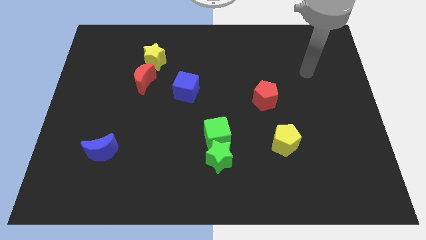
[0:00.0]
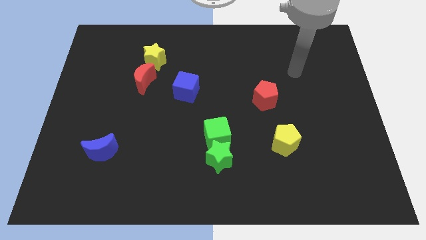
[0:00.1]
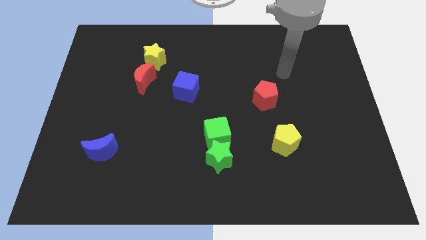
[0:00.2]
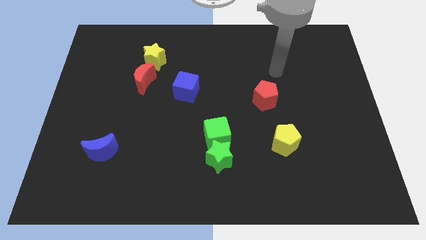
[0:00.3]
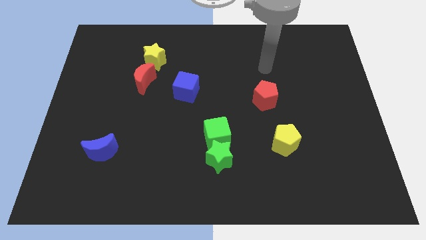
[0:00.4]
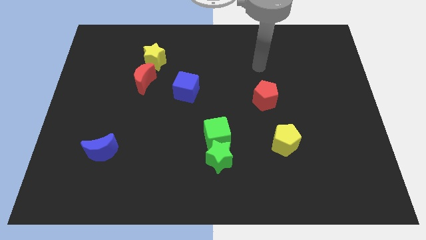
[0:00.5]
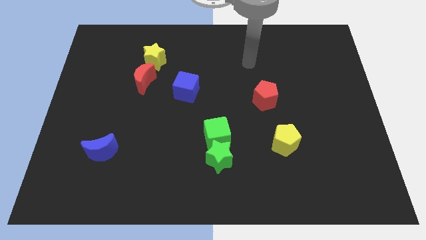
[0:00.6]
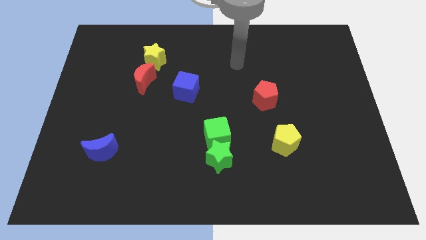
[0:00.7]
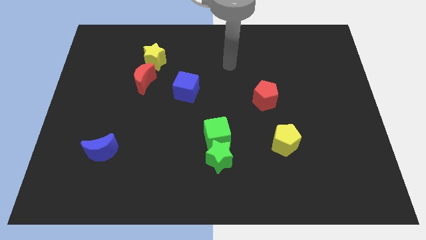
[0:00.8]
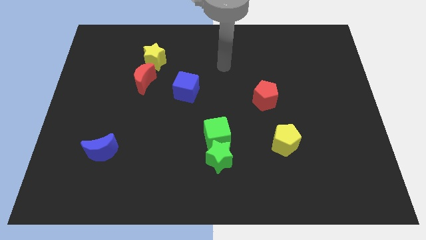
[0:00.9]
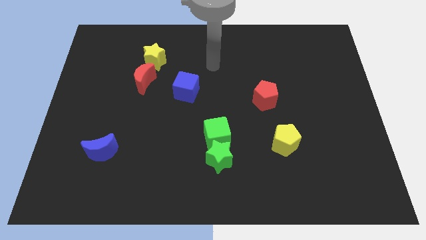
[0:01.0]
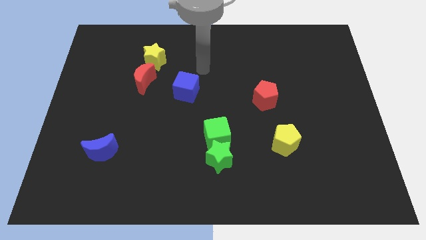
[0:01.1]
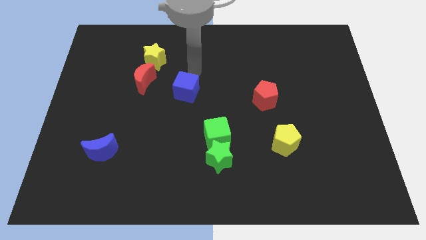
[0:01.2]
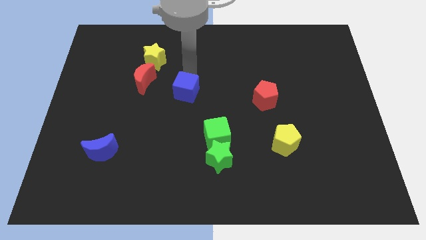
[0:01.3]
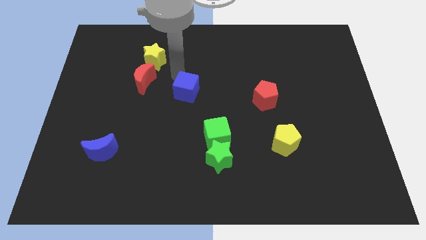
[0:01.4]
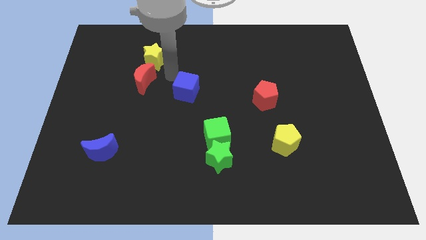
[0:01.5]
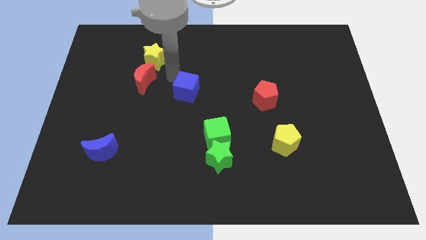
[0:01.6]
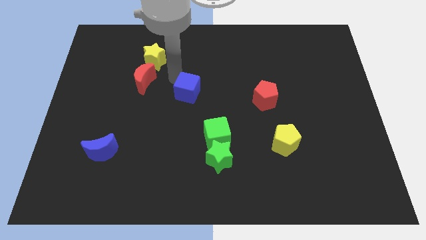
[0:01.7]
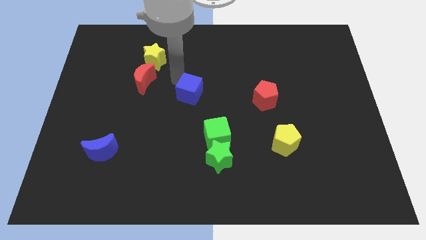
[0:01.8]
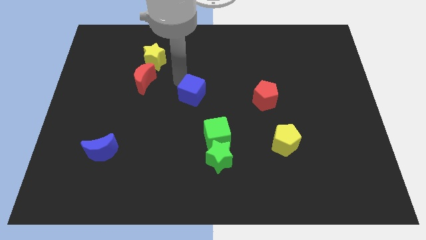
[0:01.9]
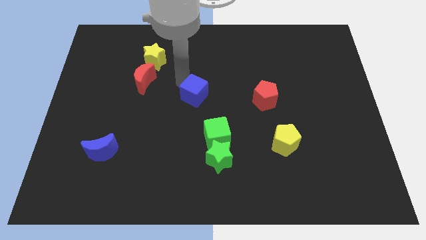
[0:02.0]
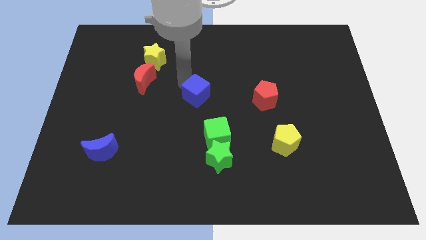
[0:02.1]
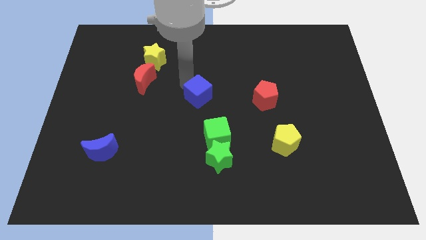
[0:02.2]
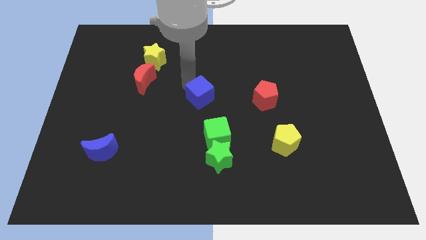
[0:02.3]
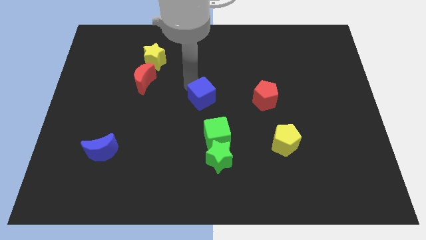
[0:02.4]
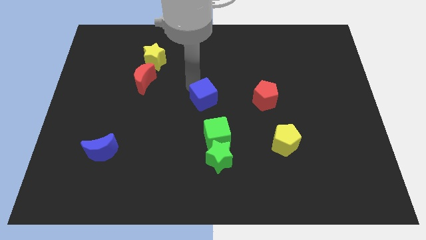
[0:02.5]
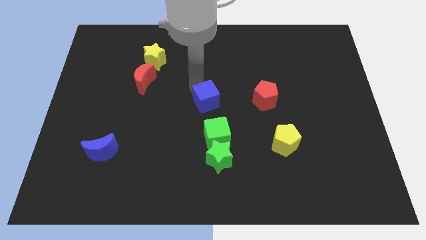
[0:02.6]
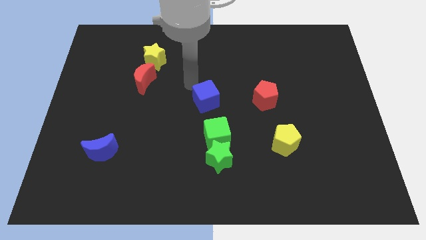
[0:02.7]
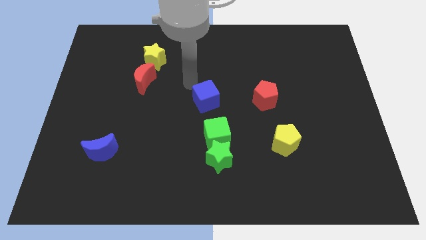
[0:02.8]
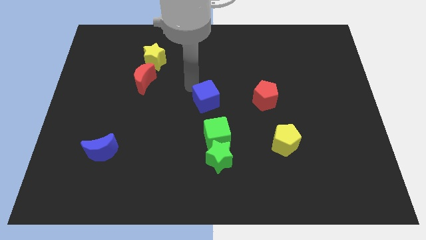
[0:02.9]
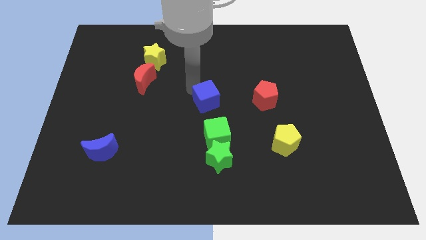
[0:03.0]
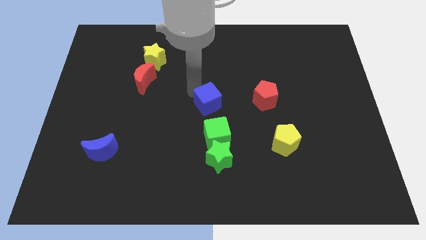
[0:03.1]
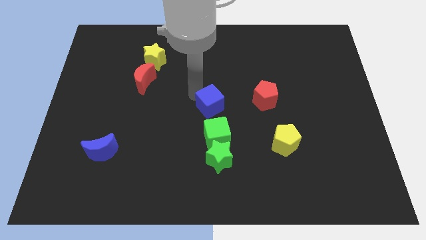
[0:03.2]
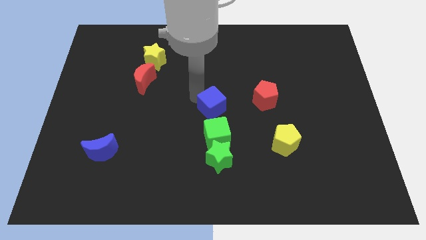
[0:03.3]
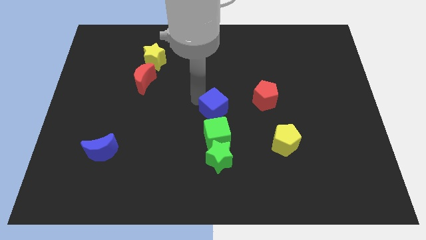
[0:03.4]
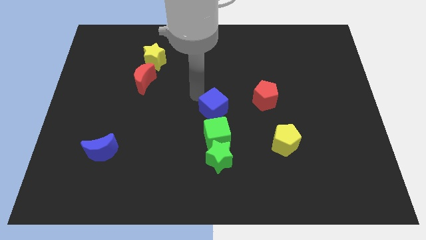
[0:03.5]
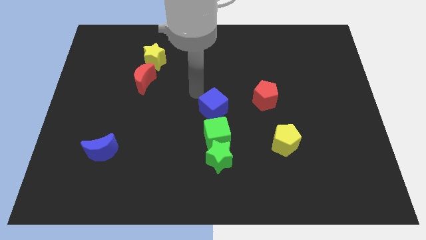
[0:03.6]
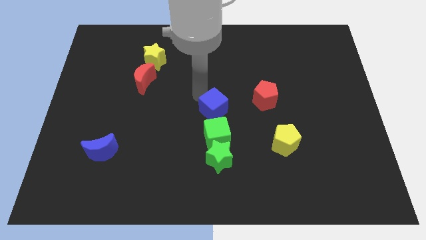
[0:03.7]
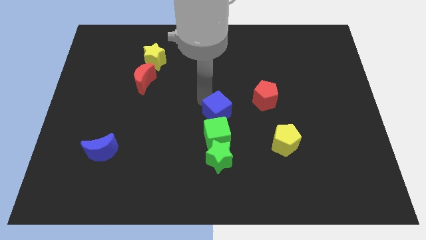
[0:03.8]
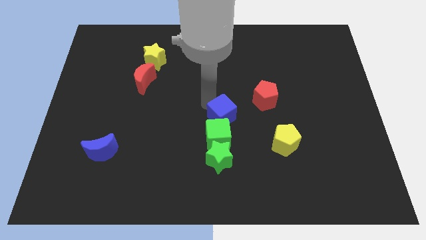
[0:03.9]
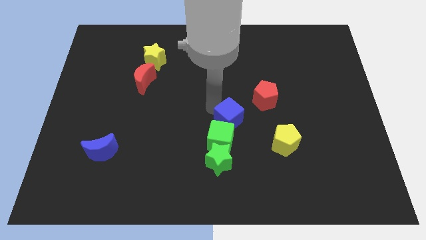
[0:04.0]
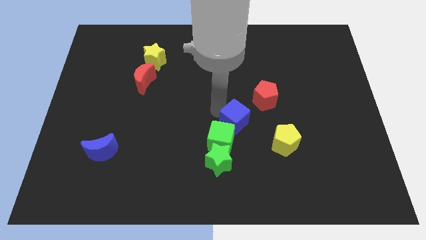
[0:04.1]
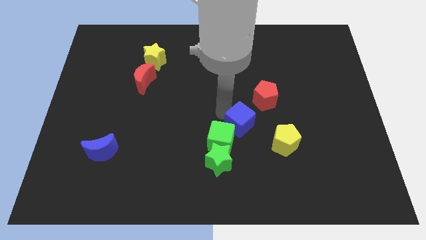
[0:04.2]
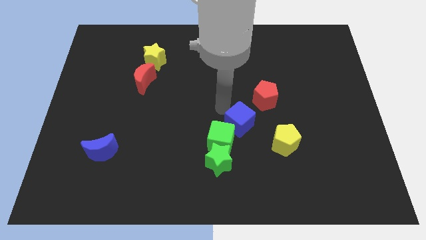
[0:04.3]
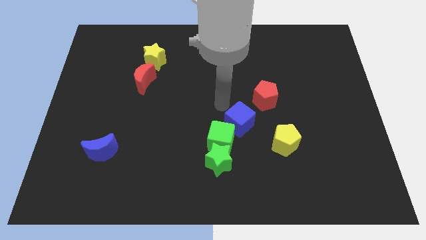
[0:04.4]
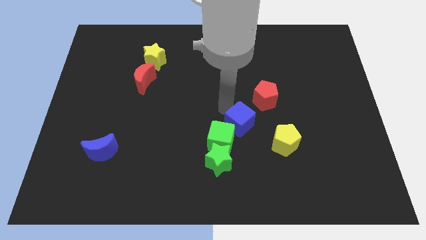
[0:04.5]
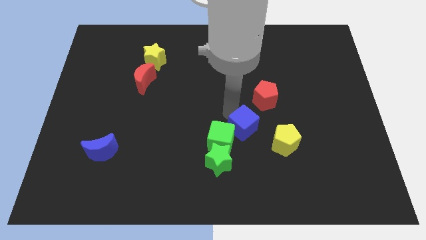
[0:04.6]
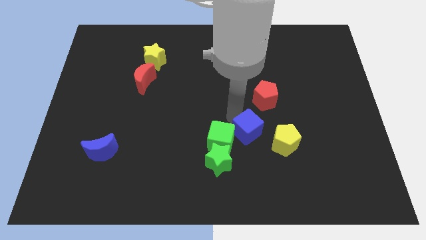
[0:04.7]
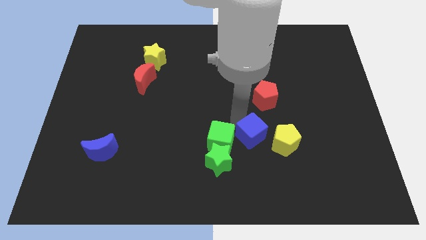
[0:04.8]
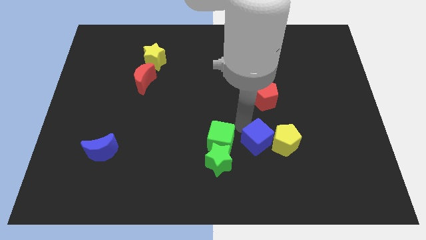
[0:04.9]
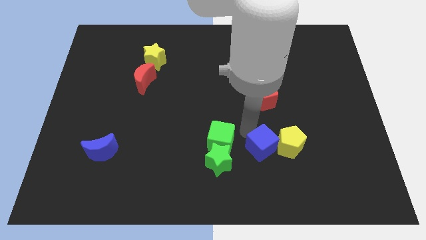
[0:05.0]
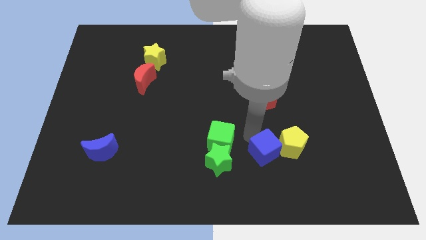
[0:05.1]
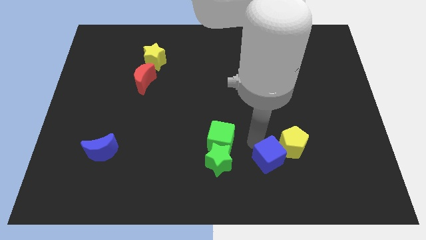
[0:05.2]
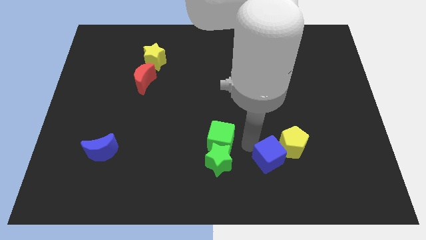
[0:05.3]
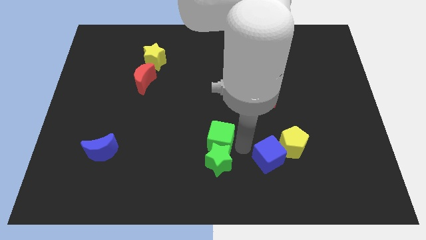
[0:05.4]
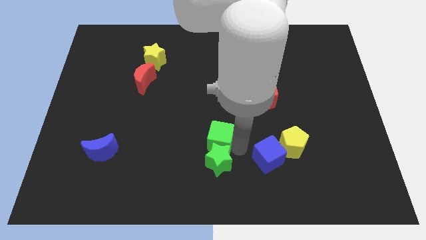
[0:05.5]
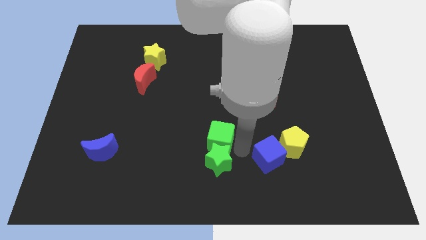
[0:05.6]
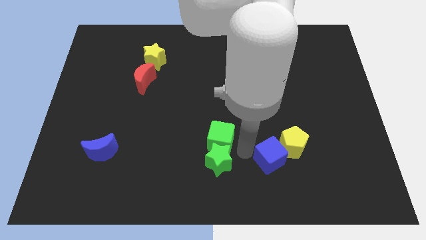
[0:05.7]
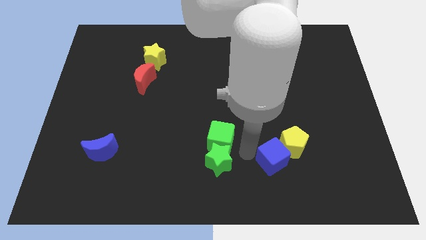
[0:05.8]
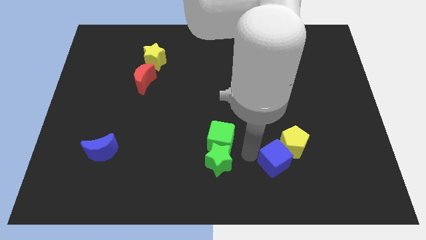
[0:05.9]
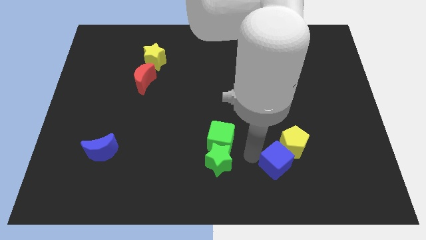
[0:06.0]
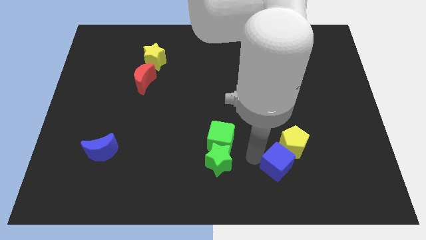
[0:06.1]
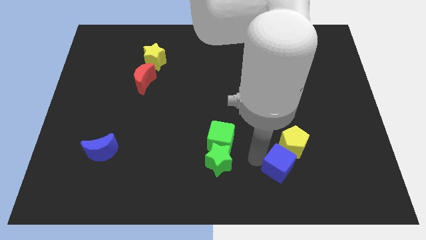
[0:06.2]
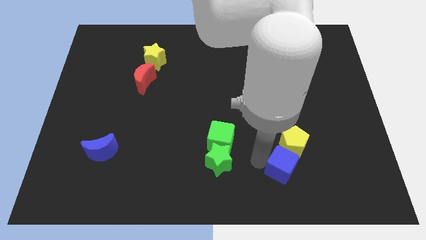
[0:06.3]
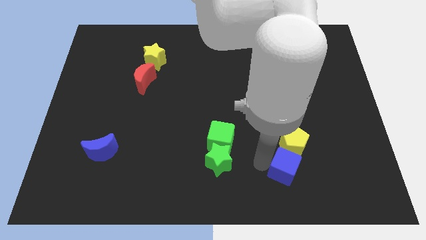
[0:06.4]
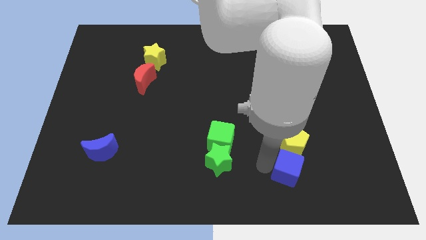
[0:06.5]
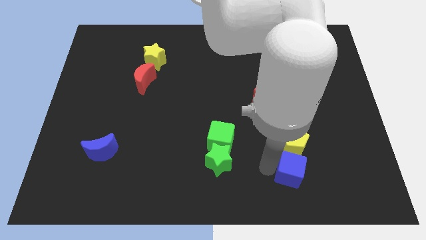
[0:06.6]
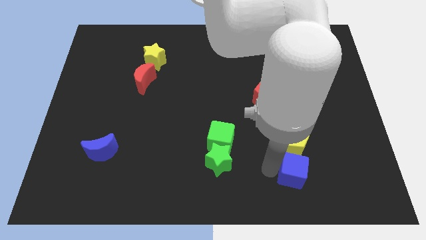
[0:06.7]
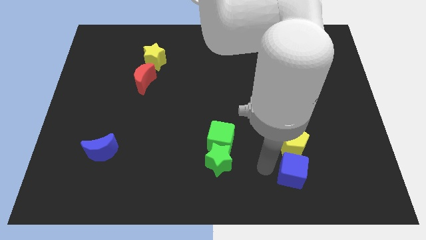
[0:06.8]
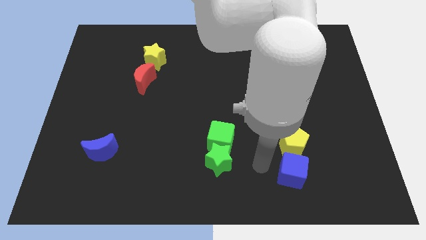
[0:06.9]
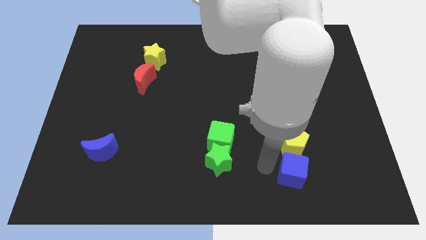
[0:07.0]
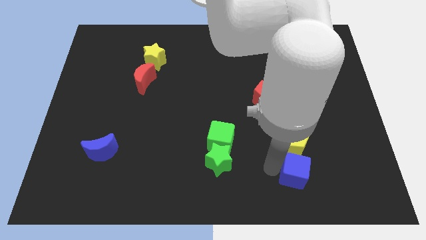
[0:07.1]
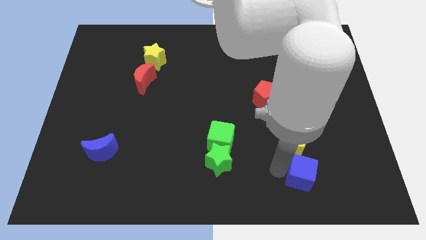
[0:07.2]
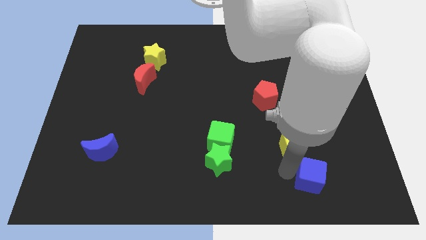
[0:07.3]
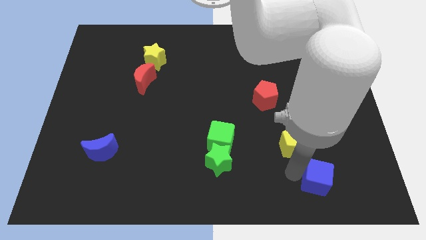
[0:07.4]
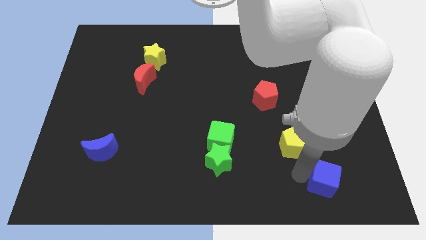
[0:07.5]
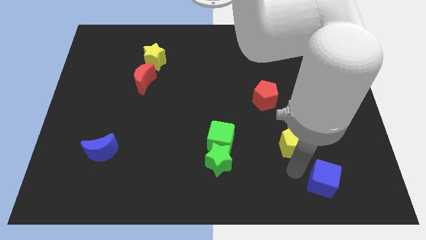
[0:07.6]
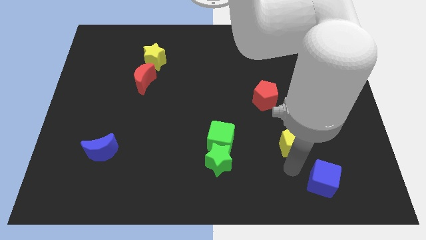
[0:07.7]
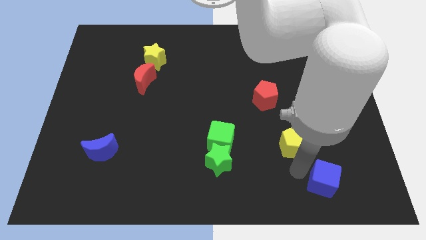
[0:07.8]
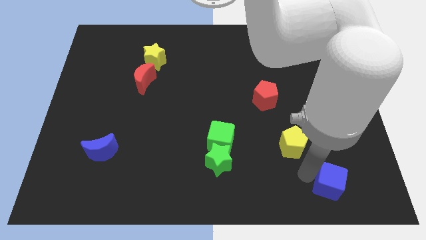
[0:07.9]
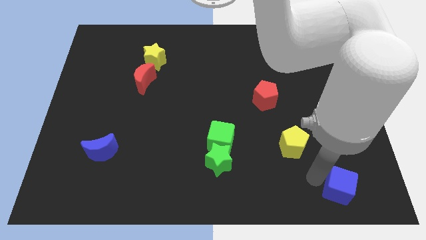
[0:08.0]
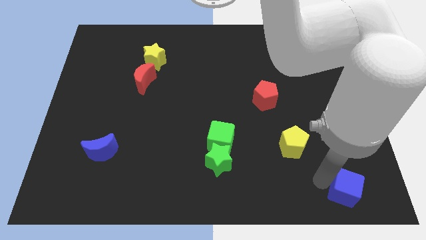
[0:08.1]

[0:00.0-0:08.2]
push the blue cube to the bottom right corner

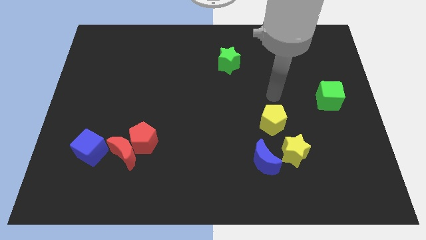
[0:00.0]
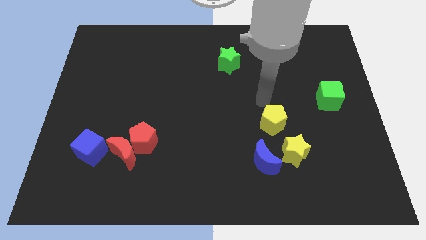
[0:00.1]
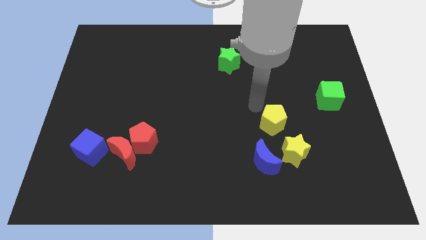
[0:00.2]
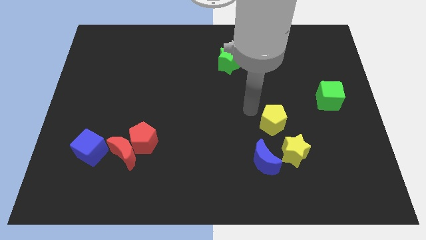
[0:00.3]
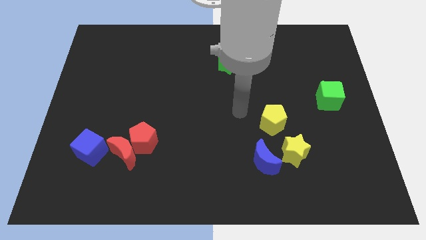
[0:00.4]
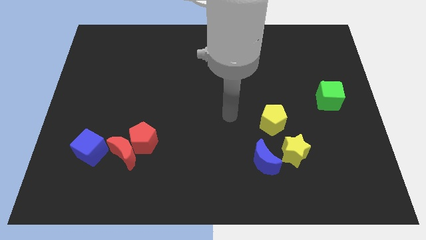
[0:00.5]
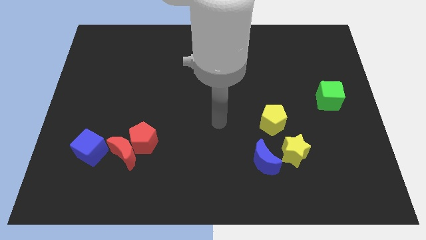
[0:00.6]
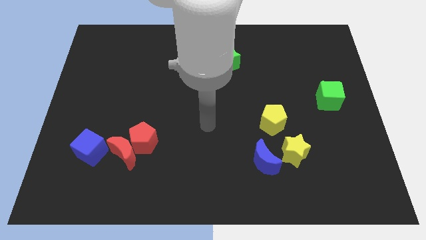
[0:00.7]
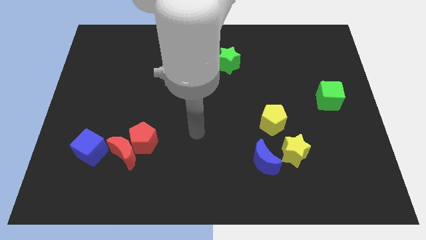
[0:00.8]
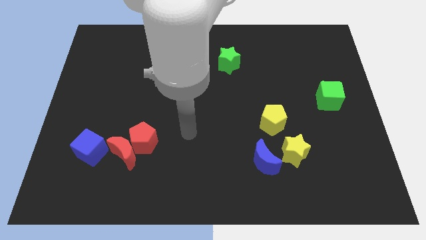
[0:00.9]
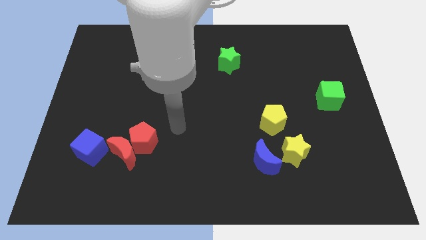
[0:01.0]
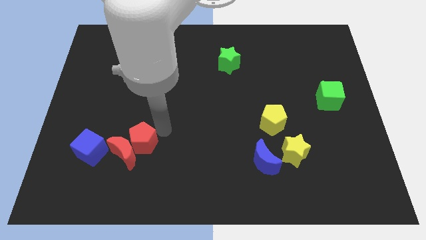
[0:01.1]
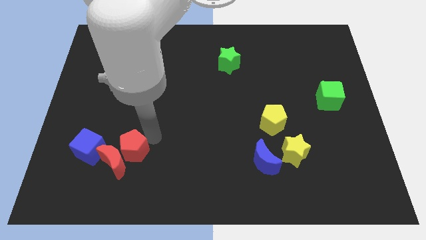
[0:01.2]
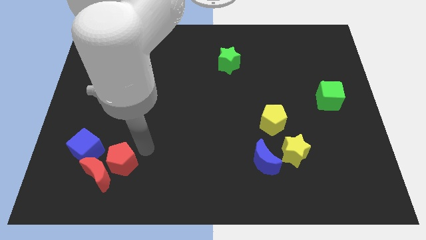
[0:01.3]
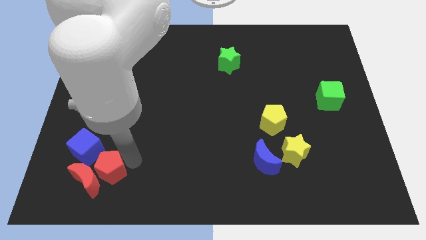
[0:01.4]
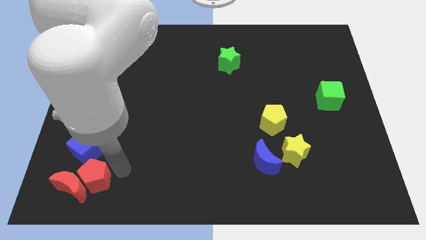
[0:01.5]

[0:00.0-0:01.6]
put the red moon to the bottom left
